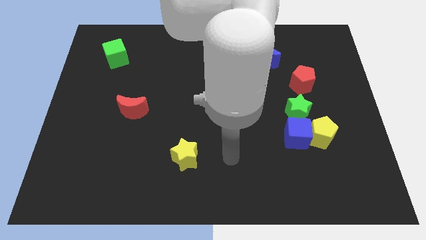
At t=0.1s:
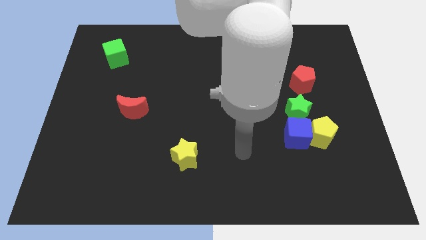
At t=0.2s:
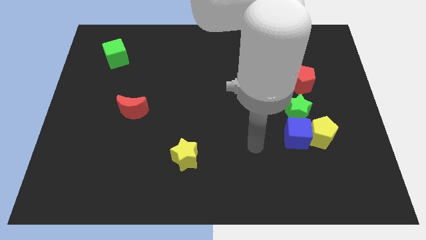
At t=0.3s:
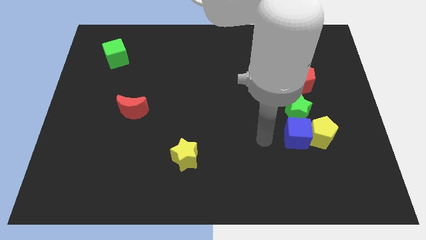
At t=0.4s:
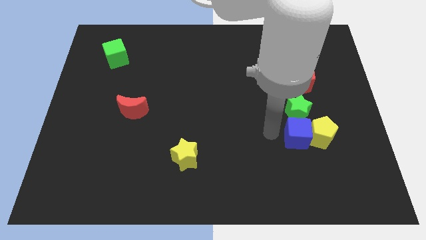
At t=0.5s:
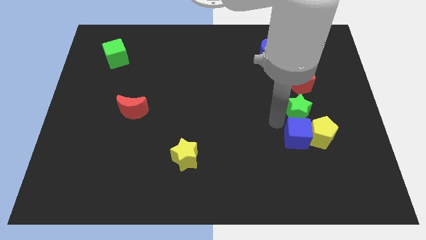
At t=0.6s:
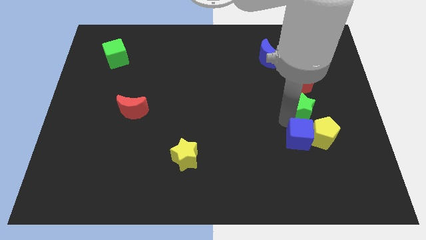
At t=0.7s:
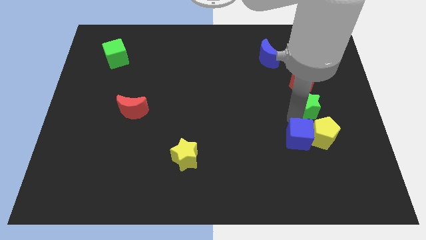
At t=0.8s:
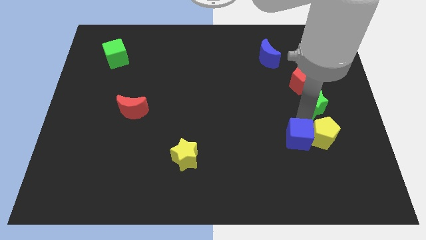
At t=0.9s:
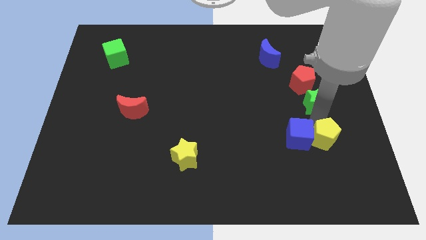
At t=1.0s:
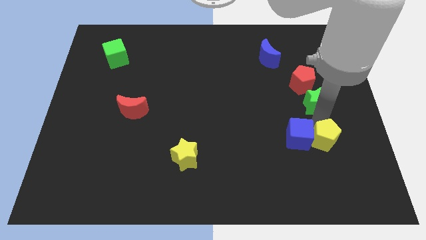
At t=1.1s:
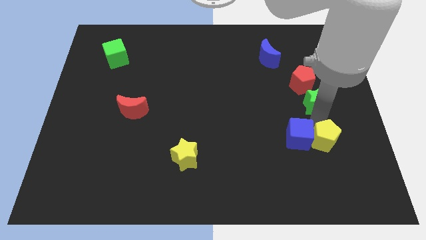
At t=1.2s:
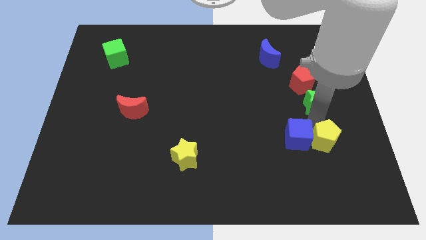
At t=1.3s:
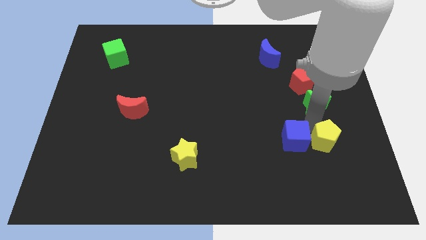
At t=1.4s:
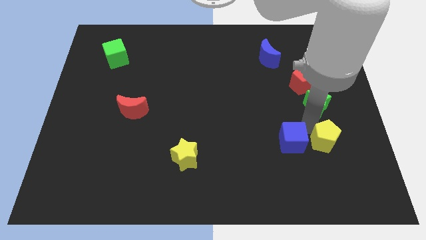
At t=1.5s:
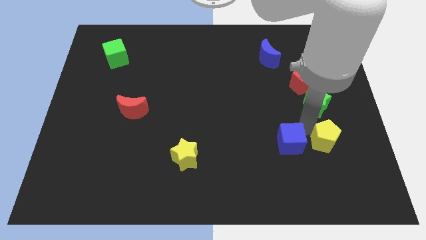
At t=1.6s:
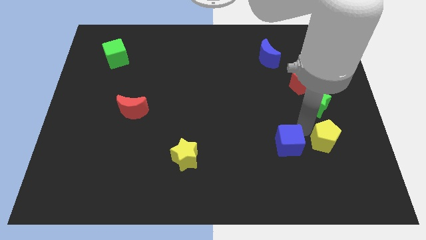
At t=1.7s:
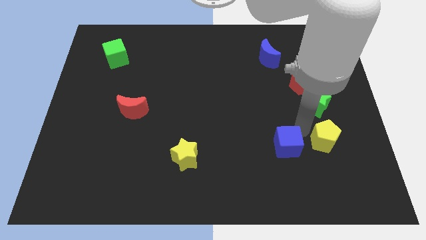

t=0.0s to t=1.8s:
separate the blue cube from the yellow pentagon and green star

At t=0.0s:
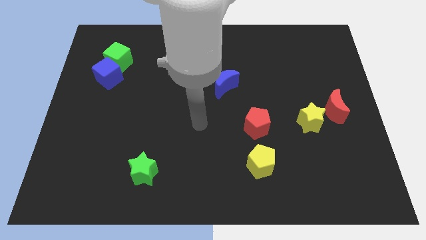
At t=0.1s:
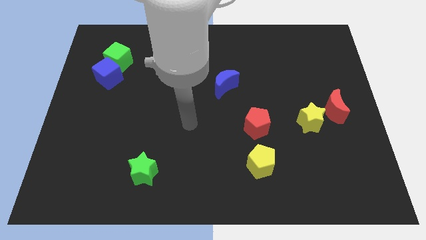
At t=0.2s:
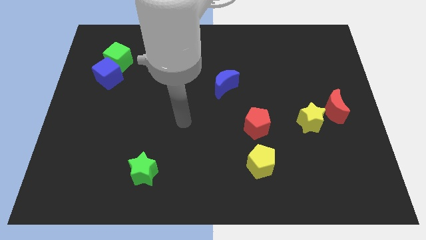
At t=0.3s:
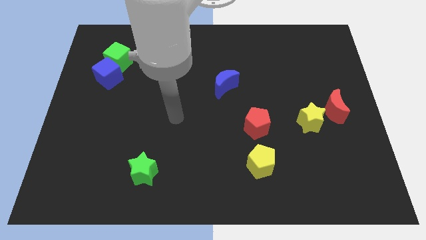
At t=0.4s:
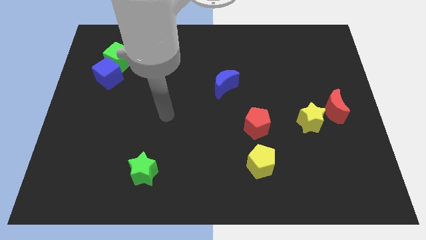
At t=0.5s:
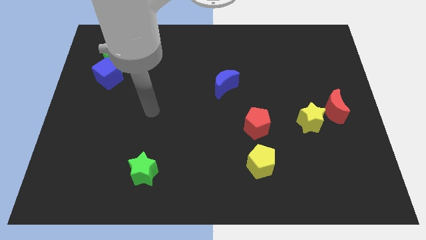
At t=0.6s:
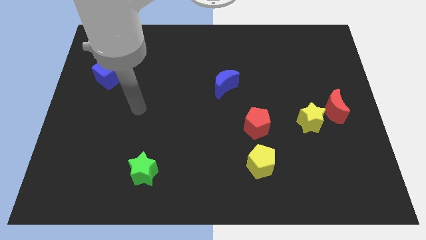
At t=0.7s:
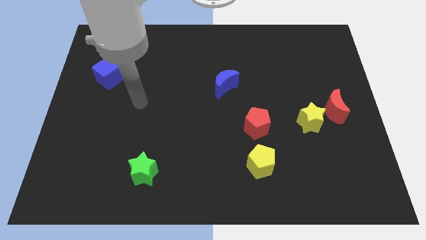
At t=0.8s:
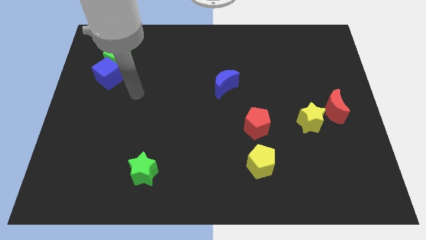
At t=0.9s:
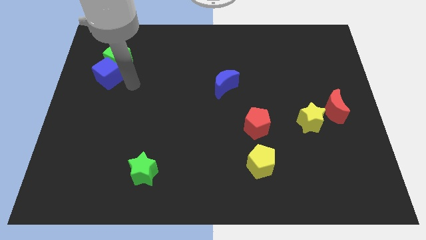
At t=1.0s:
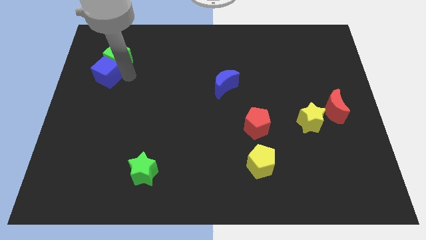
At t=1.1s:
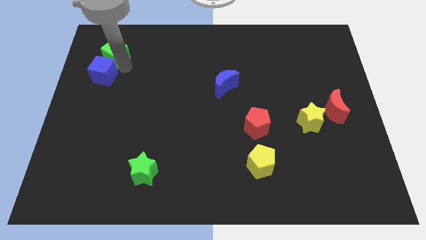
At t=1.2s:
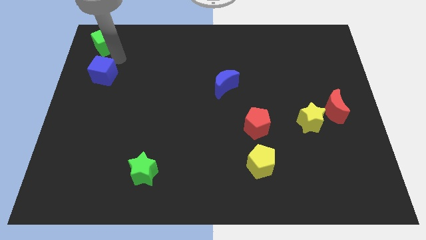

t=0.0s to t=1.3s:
move the blue cube away from the green cube

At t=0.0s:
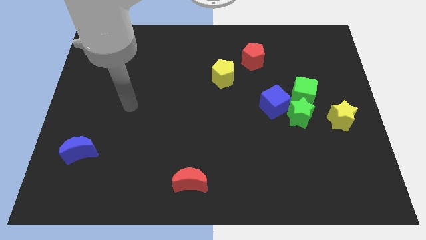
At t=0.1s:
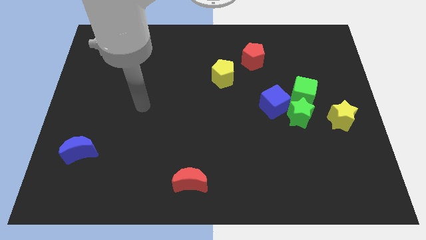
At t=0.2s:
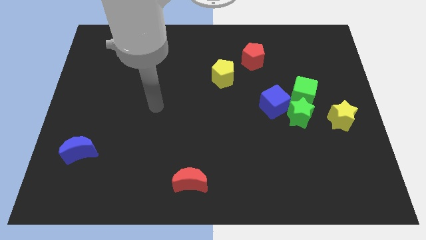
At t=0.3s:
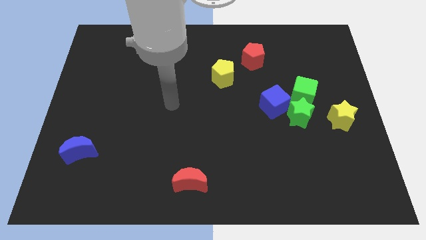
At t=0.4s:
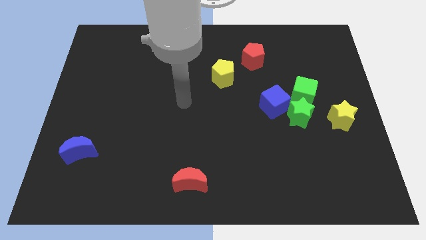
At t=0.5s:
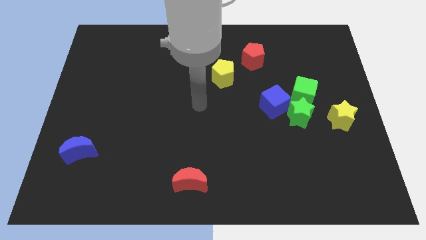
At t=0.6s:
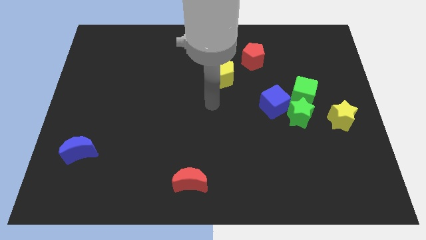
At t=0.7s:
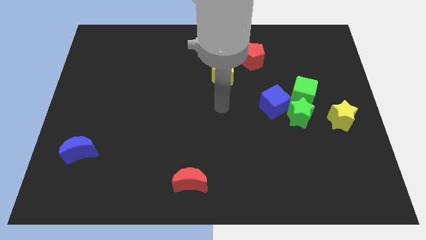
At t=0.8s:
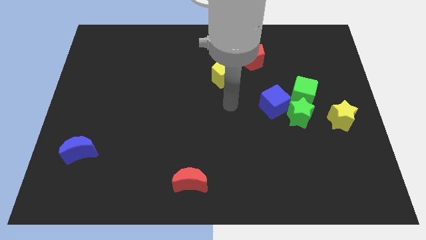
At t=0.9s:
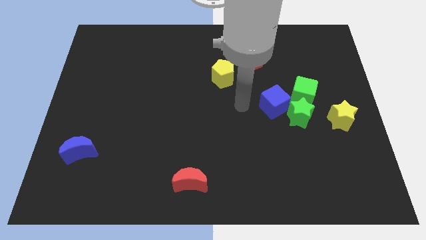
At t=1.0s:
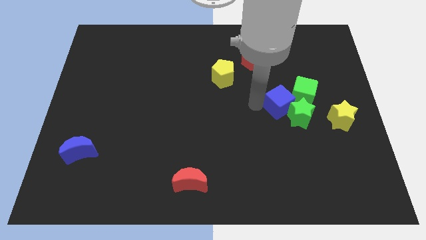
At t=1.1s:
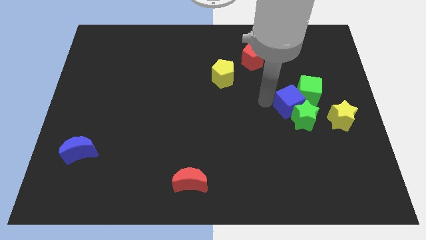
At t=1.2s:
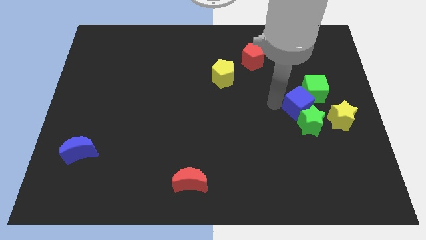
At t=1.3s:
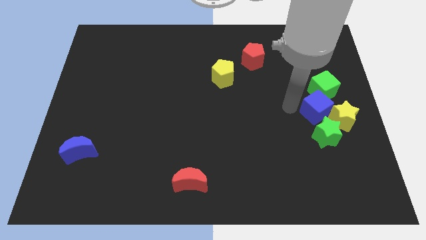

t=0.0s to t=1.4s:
pull the green cube apart from the green star and blue cube

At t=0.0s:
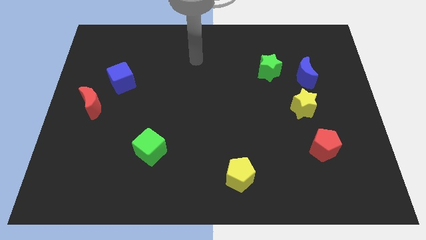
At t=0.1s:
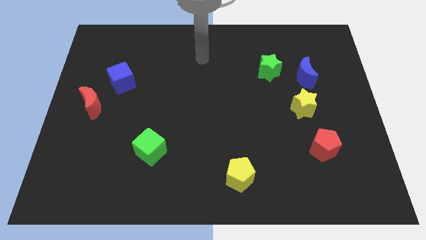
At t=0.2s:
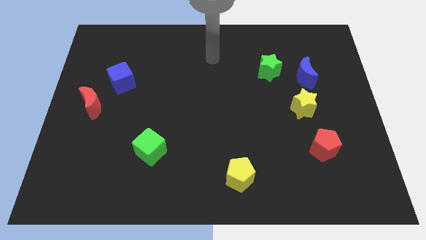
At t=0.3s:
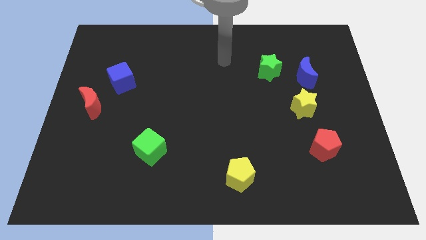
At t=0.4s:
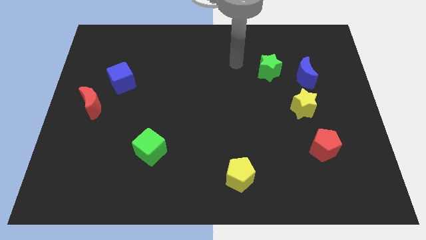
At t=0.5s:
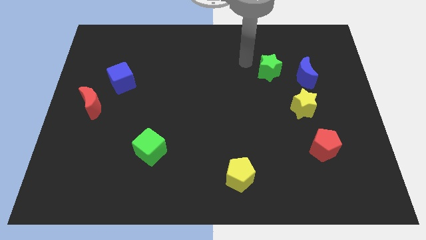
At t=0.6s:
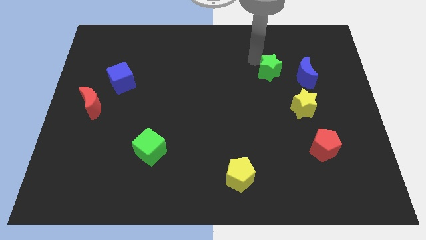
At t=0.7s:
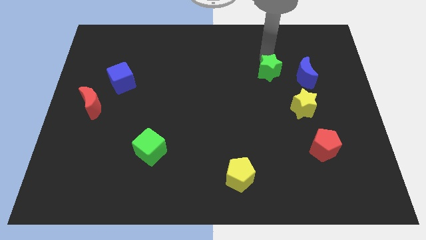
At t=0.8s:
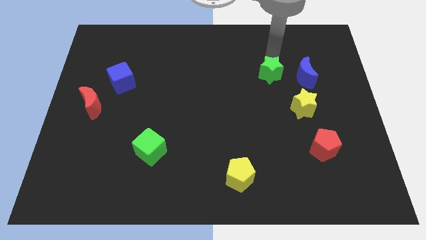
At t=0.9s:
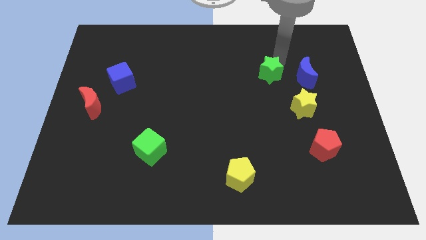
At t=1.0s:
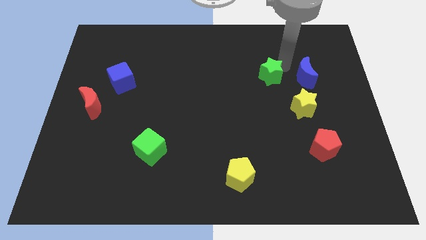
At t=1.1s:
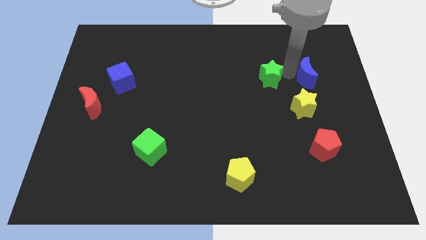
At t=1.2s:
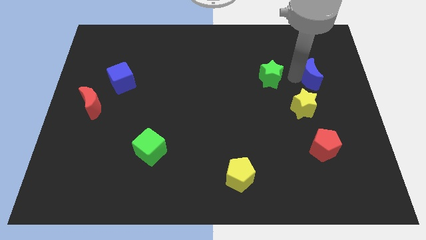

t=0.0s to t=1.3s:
pull the green star apart from the blue moon

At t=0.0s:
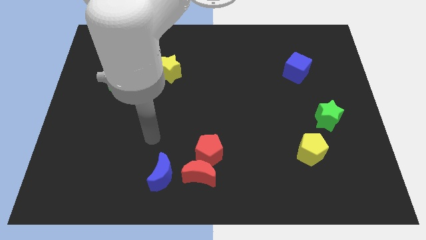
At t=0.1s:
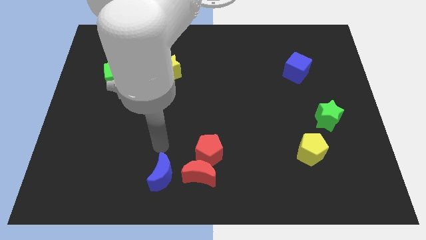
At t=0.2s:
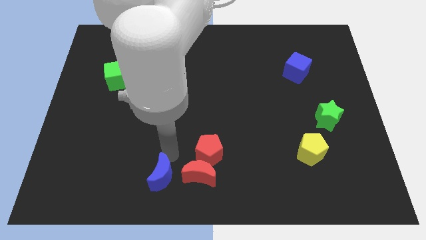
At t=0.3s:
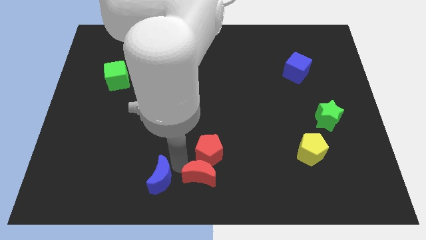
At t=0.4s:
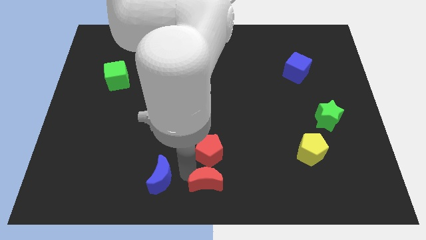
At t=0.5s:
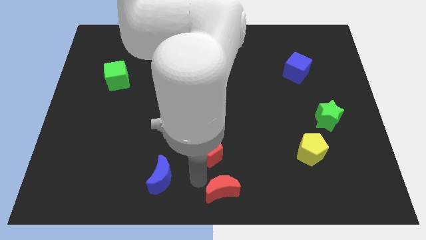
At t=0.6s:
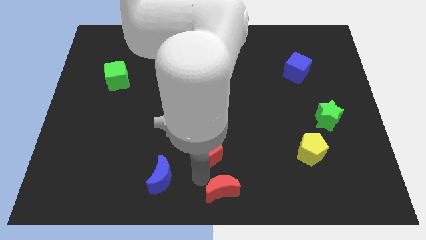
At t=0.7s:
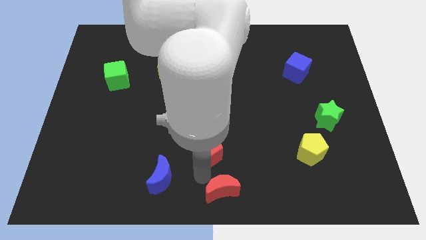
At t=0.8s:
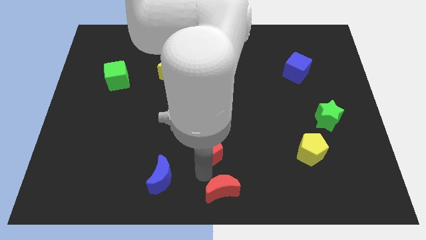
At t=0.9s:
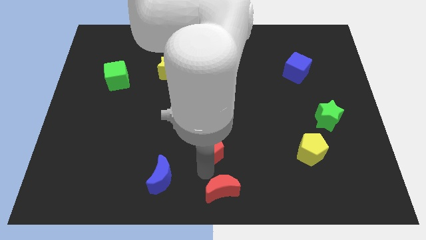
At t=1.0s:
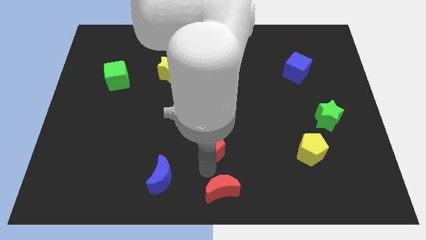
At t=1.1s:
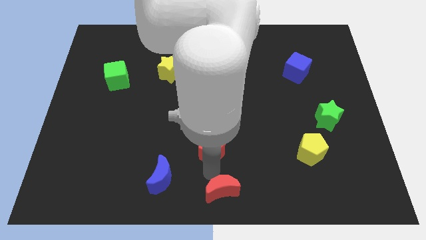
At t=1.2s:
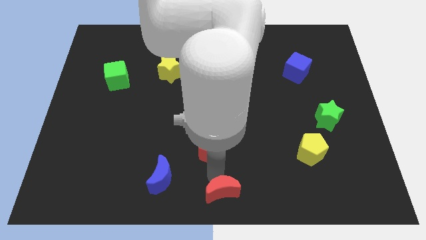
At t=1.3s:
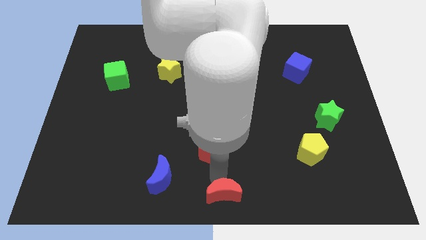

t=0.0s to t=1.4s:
separate the red pentagon from the red moon

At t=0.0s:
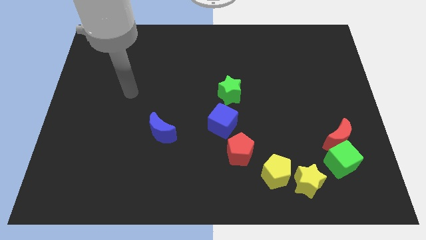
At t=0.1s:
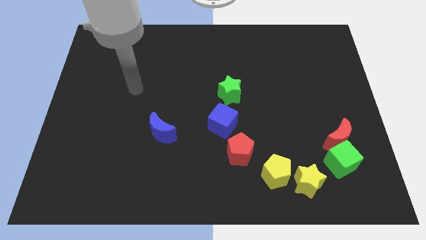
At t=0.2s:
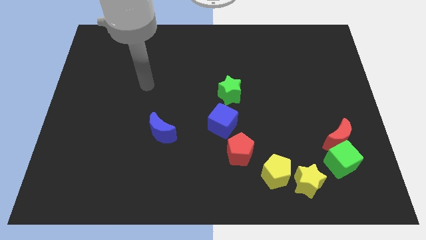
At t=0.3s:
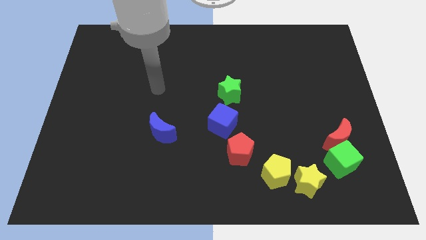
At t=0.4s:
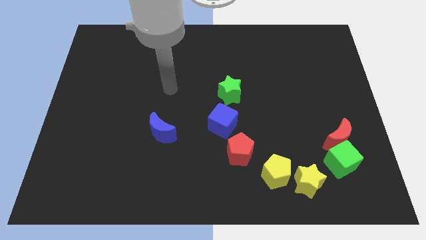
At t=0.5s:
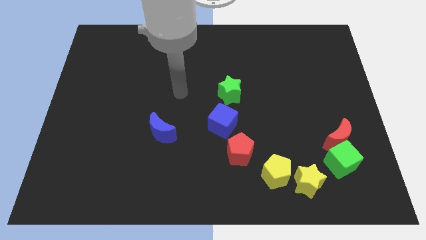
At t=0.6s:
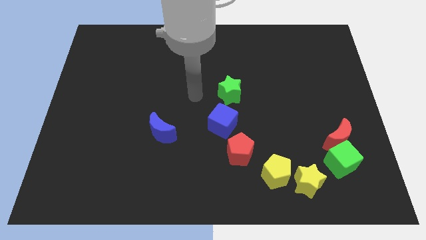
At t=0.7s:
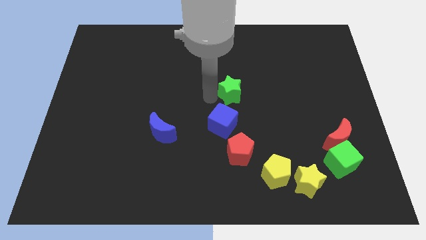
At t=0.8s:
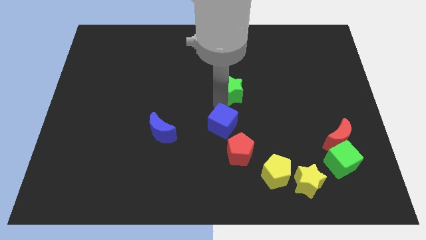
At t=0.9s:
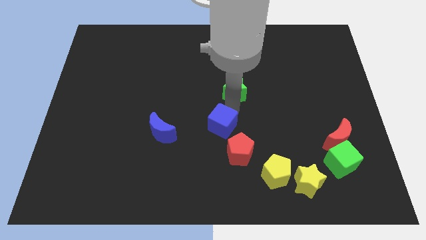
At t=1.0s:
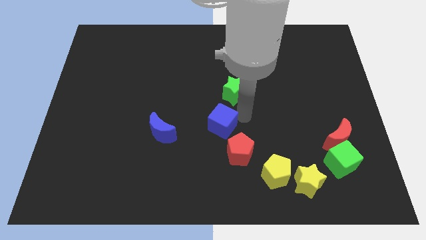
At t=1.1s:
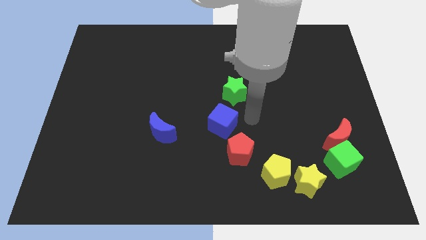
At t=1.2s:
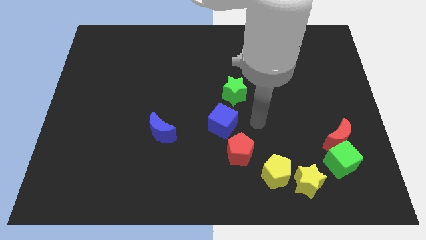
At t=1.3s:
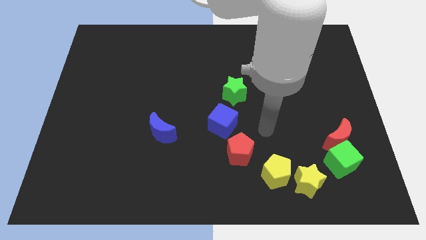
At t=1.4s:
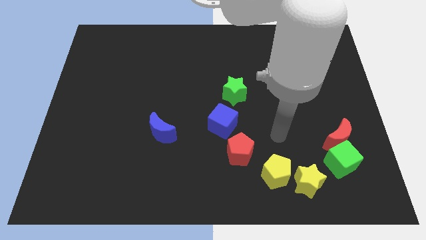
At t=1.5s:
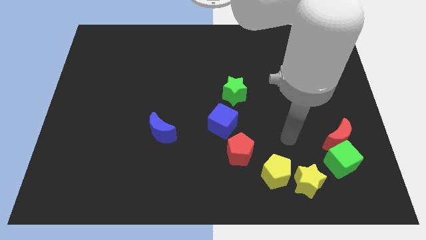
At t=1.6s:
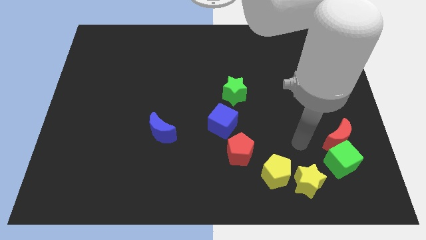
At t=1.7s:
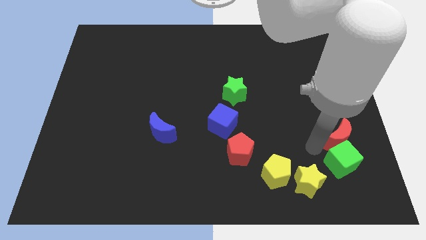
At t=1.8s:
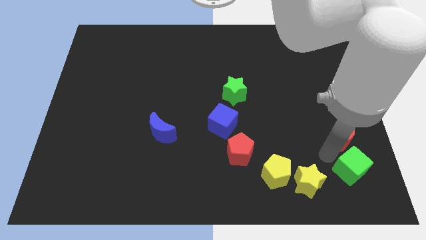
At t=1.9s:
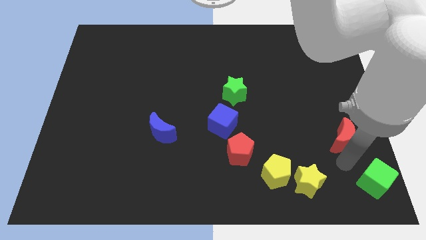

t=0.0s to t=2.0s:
move the red moon away from the green cube

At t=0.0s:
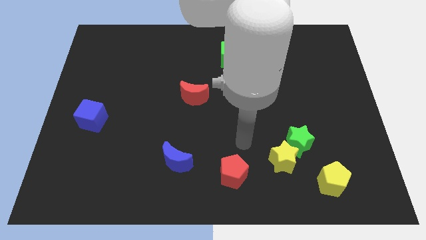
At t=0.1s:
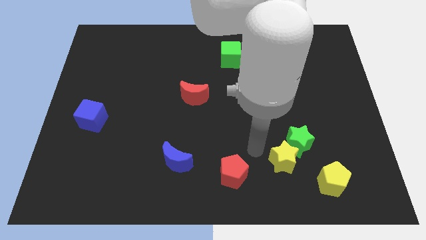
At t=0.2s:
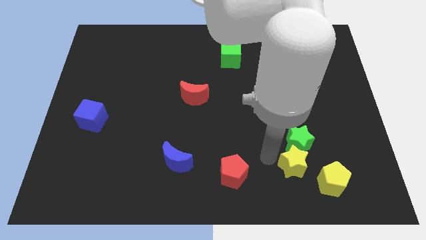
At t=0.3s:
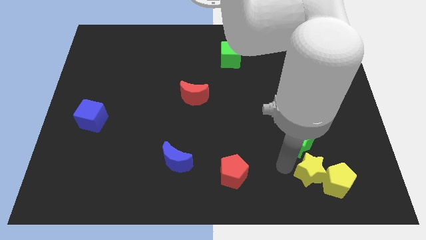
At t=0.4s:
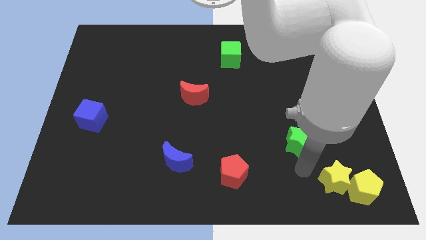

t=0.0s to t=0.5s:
move the green star away from the yellow star
